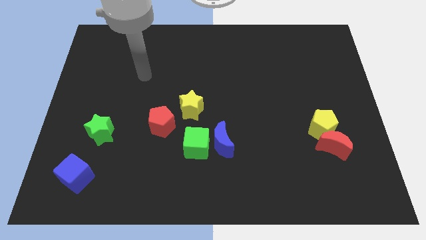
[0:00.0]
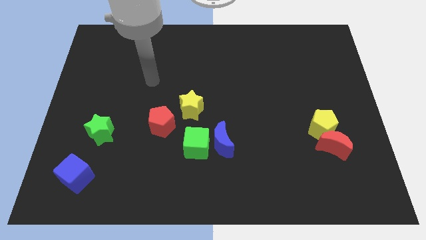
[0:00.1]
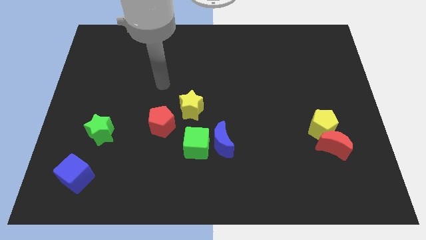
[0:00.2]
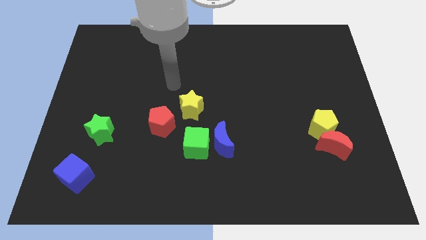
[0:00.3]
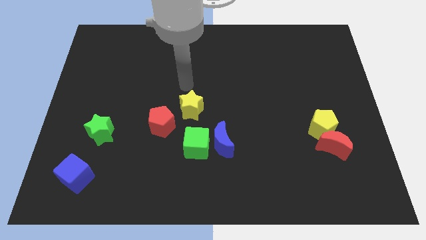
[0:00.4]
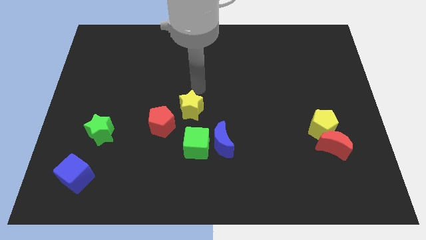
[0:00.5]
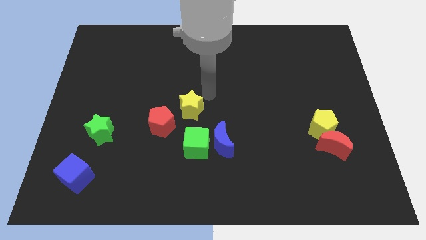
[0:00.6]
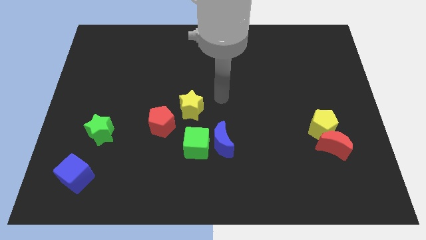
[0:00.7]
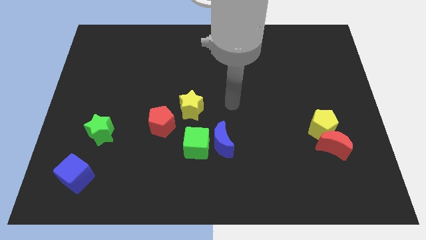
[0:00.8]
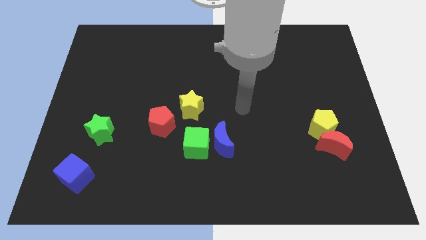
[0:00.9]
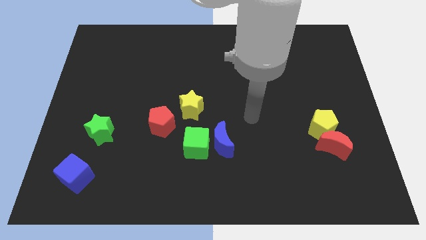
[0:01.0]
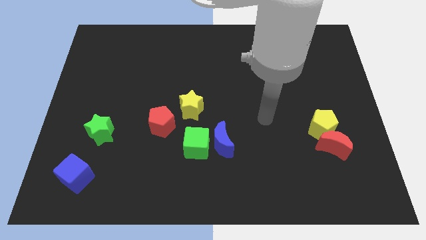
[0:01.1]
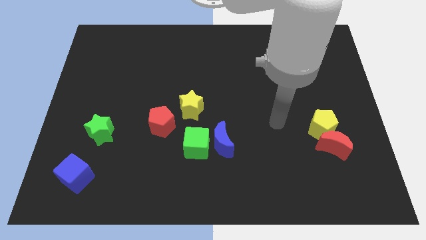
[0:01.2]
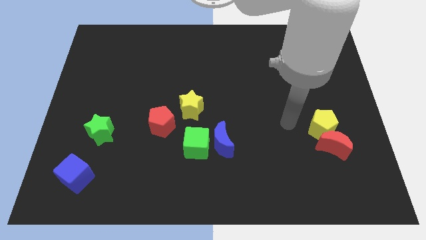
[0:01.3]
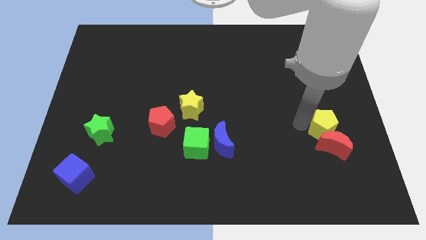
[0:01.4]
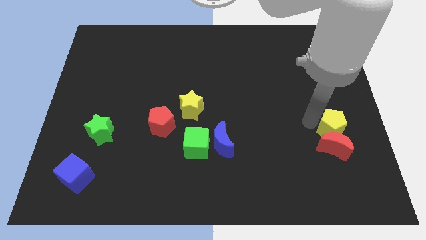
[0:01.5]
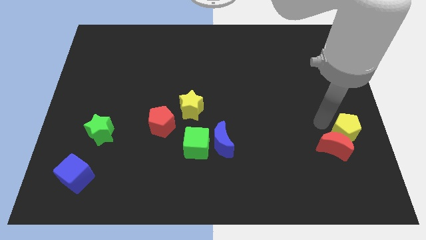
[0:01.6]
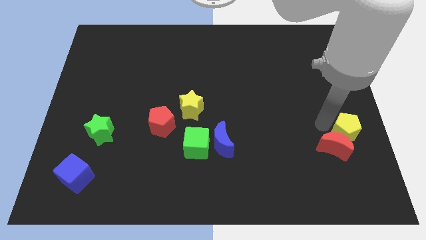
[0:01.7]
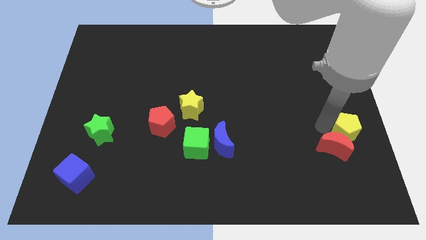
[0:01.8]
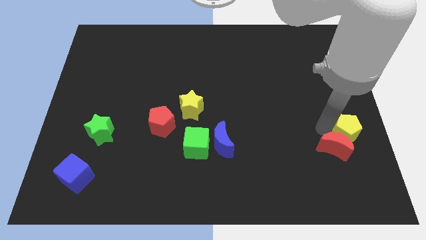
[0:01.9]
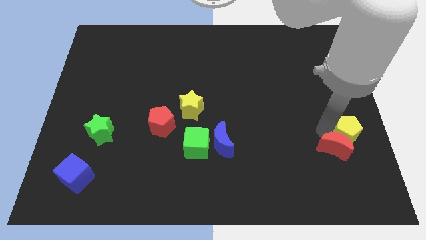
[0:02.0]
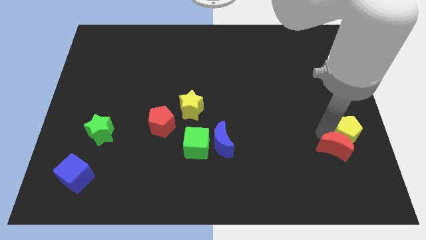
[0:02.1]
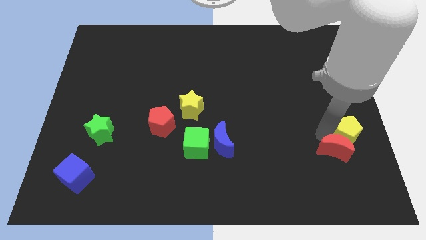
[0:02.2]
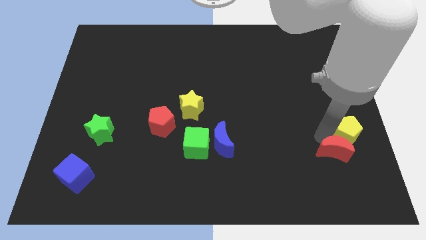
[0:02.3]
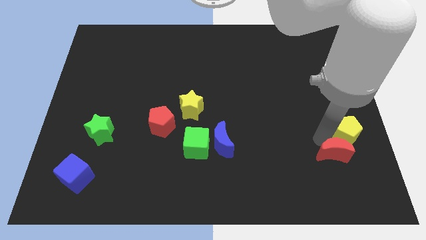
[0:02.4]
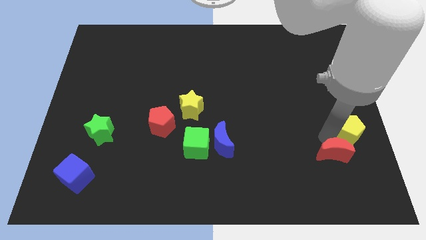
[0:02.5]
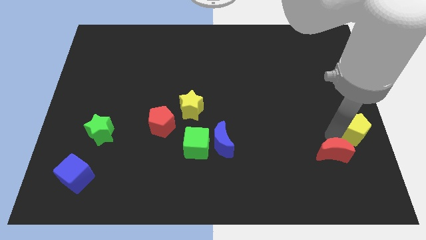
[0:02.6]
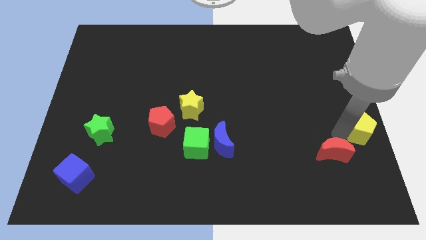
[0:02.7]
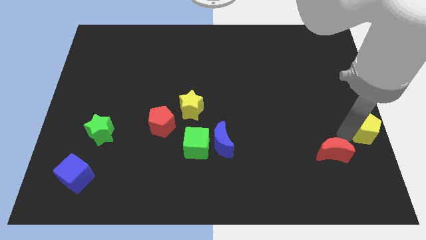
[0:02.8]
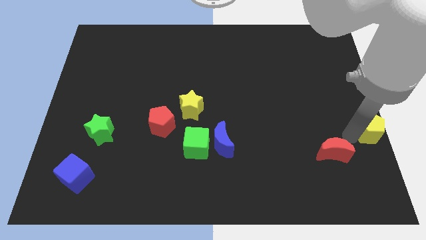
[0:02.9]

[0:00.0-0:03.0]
separate the red moon from the yellow pentagon

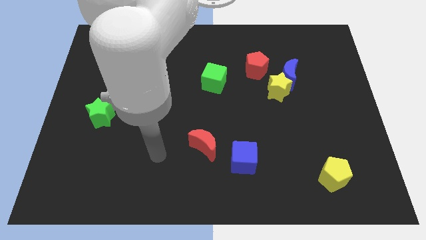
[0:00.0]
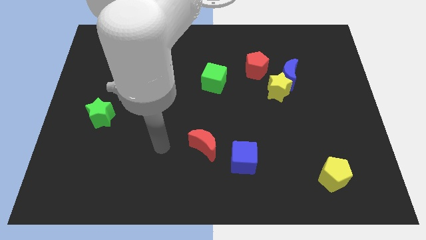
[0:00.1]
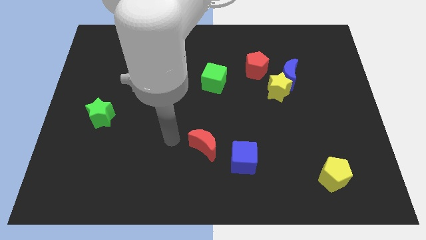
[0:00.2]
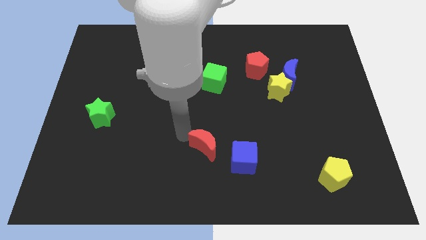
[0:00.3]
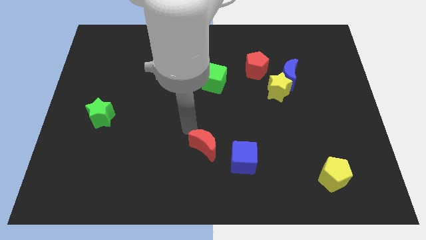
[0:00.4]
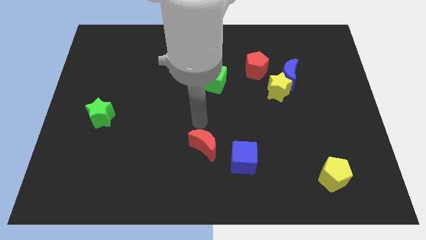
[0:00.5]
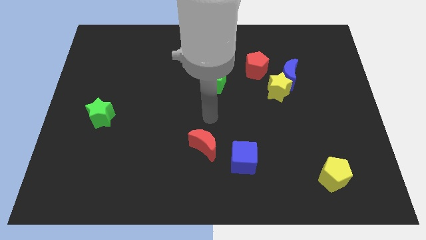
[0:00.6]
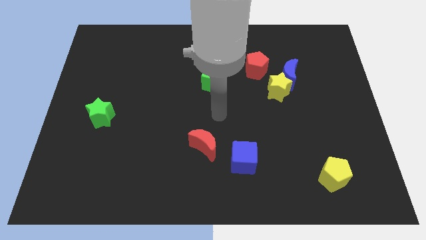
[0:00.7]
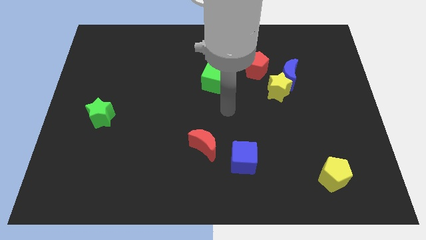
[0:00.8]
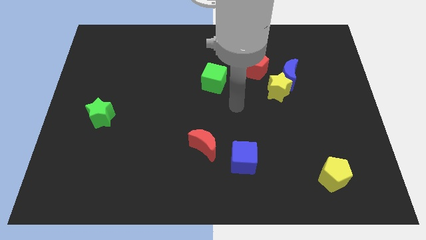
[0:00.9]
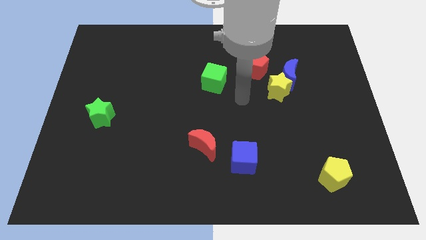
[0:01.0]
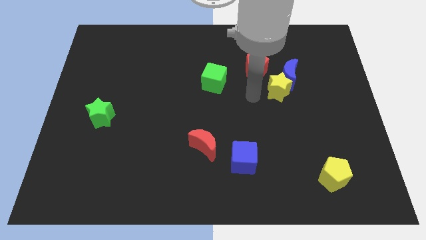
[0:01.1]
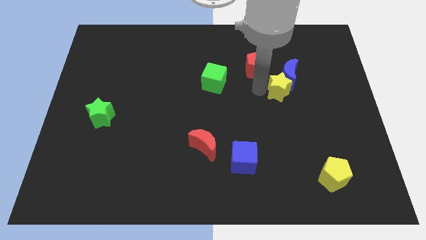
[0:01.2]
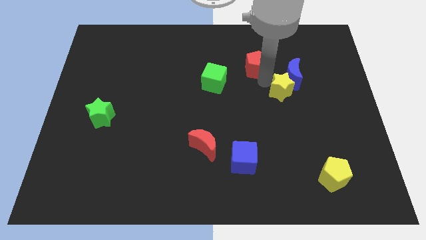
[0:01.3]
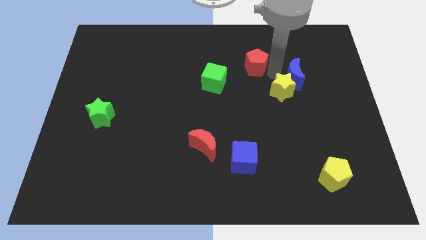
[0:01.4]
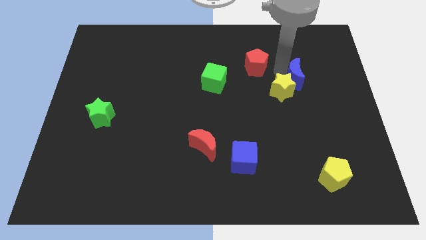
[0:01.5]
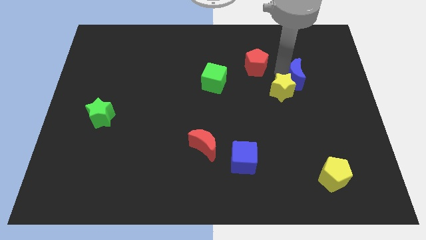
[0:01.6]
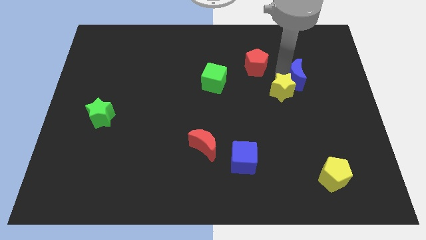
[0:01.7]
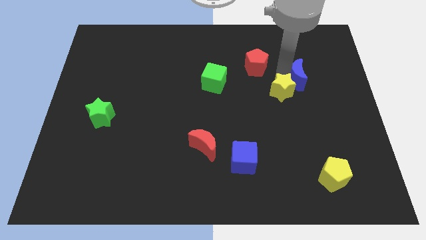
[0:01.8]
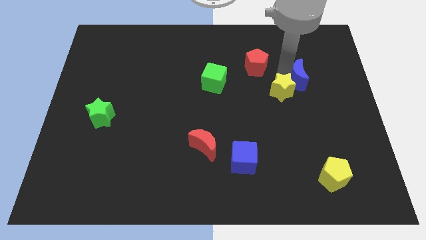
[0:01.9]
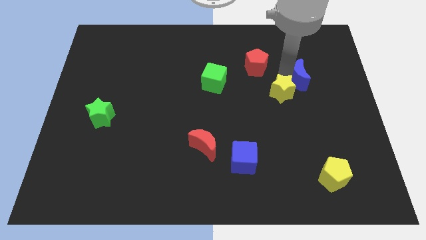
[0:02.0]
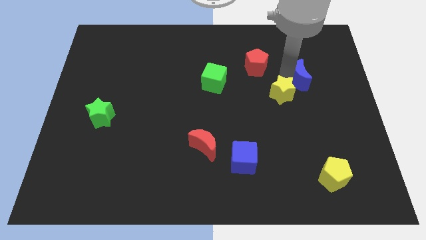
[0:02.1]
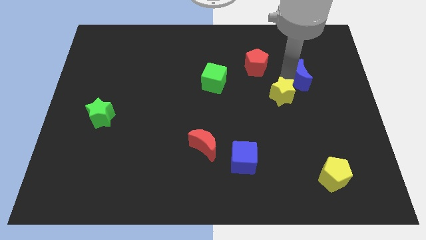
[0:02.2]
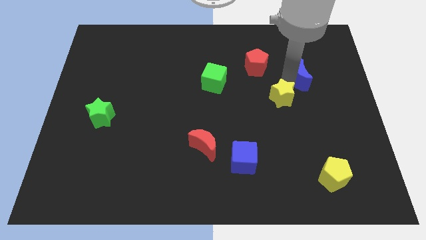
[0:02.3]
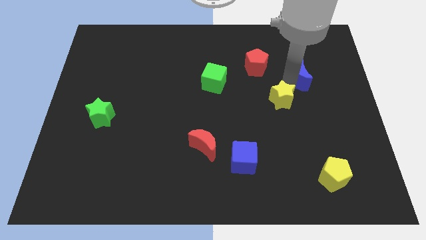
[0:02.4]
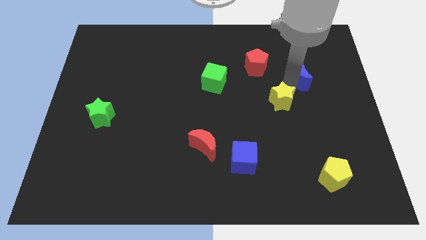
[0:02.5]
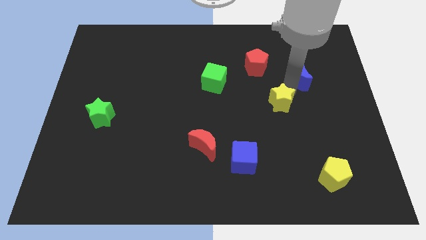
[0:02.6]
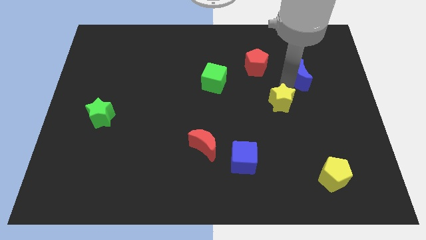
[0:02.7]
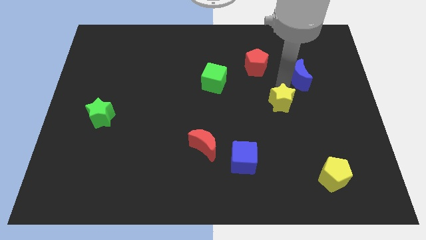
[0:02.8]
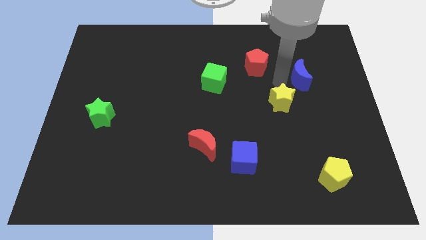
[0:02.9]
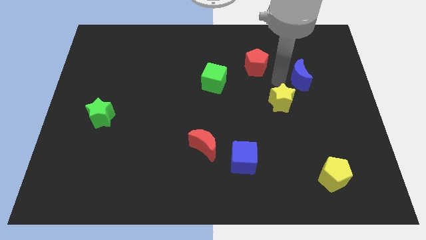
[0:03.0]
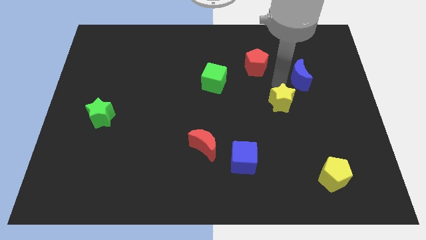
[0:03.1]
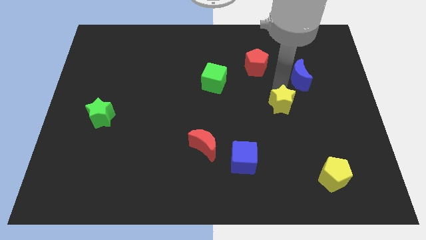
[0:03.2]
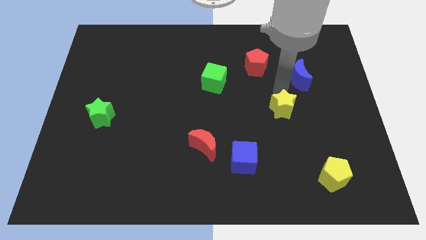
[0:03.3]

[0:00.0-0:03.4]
pull the yellow star apart from the blue moon and red pentagon

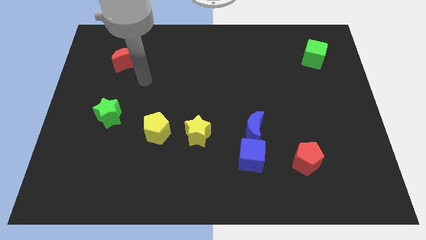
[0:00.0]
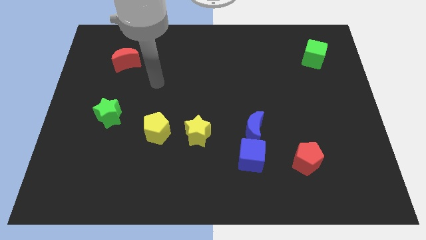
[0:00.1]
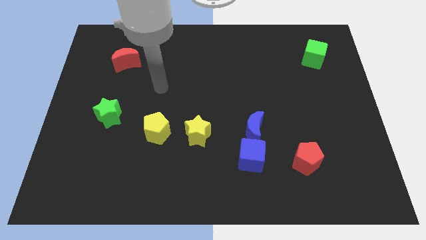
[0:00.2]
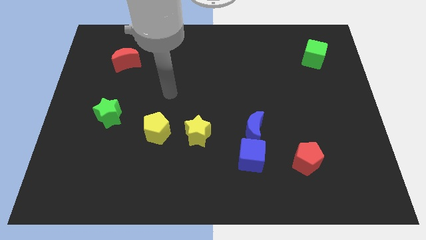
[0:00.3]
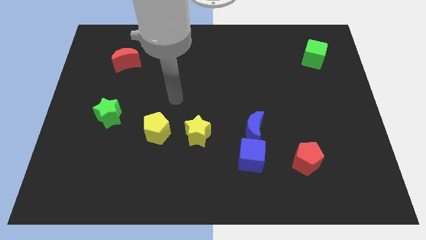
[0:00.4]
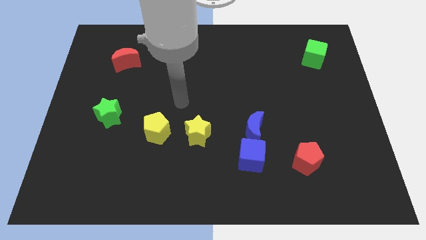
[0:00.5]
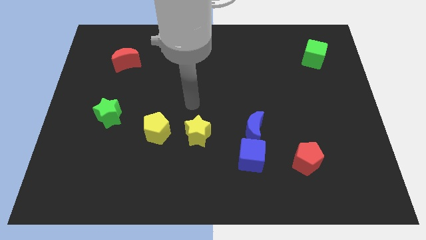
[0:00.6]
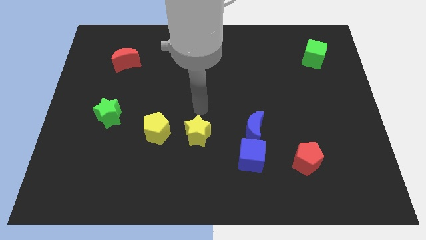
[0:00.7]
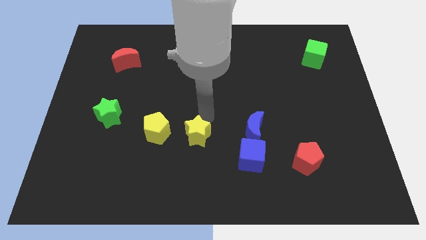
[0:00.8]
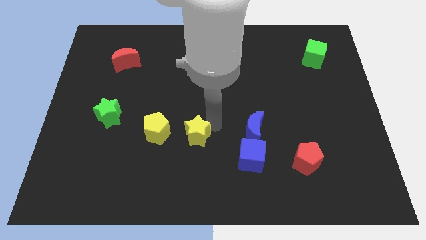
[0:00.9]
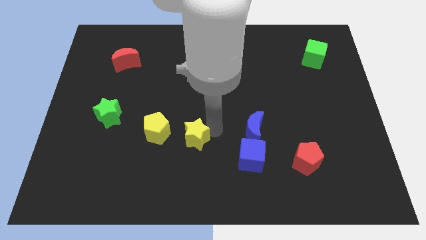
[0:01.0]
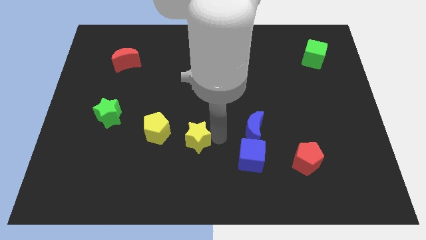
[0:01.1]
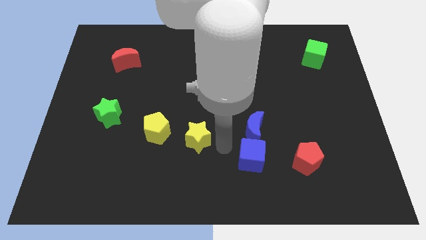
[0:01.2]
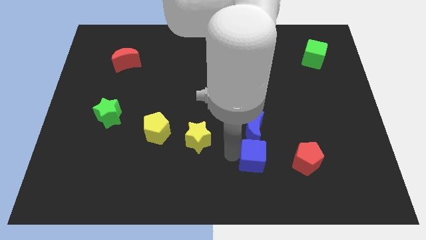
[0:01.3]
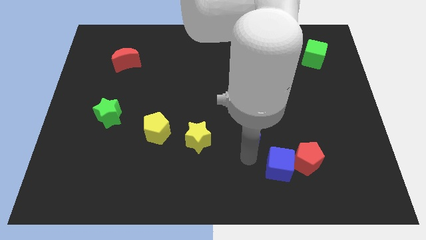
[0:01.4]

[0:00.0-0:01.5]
move the blue moon away from the blue cube

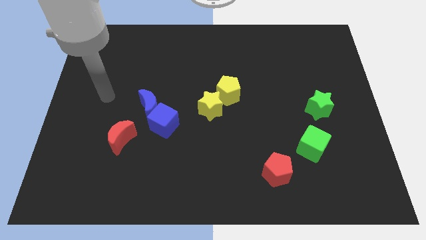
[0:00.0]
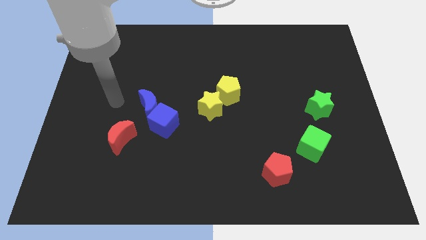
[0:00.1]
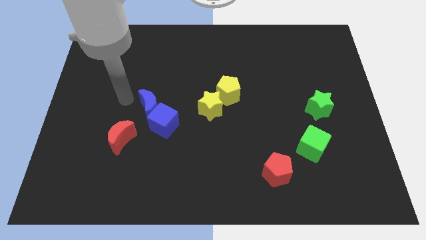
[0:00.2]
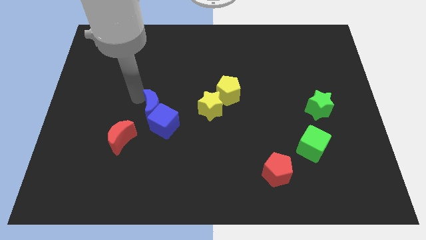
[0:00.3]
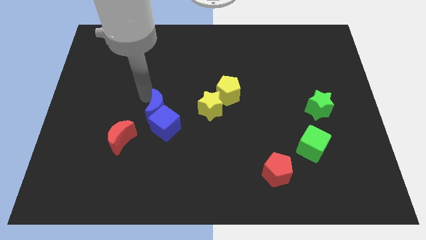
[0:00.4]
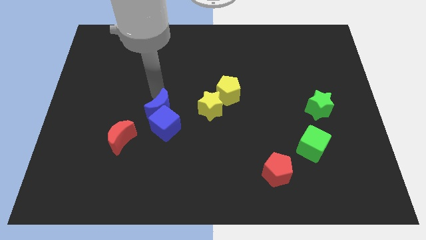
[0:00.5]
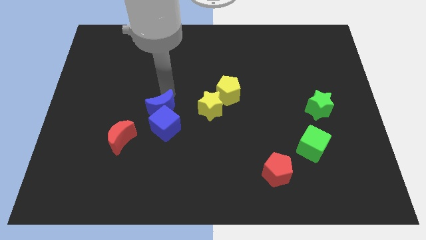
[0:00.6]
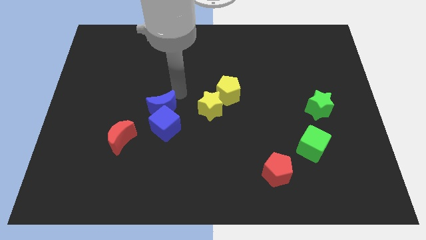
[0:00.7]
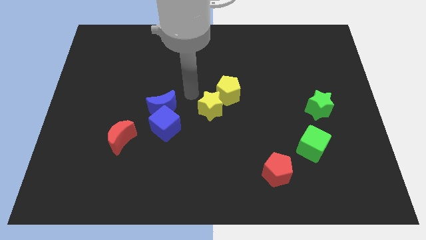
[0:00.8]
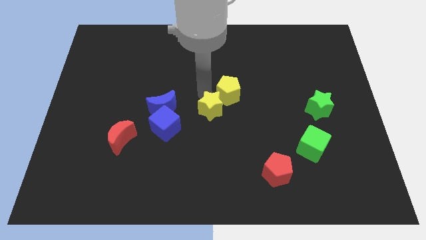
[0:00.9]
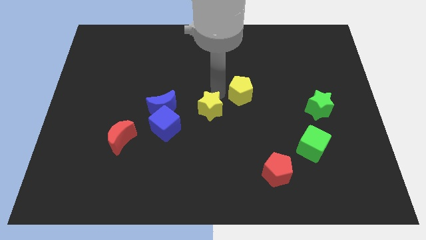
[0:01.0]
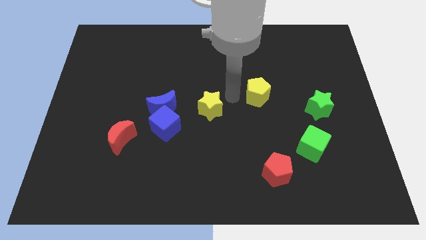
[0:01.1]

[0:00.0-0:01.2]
separate the yellow star from the yellow pentagon

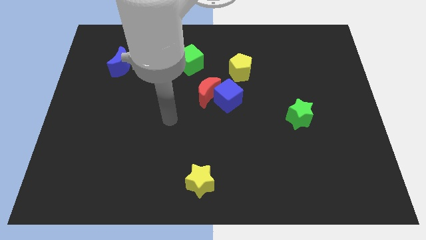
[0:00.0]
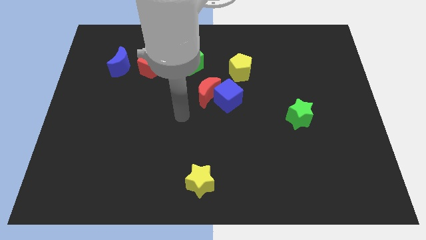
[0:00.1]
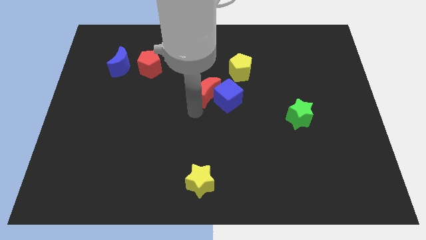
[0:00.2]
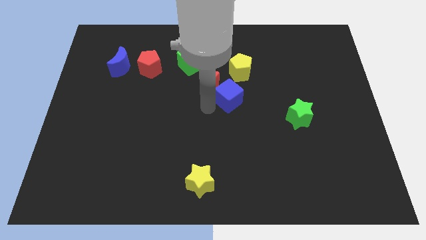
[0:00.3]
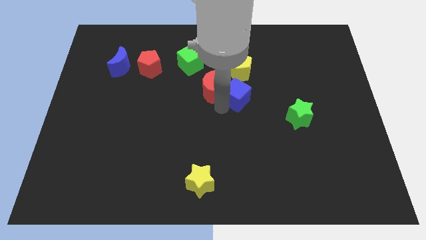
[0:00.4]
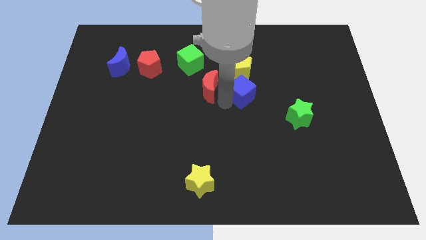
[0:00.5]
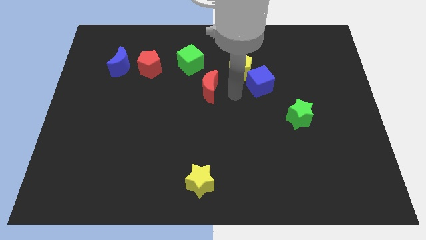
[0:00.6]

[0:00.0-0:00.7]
separate the red moon from the blue cube
